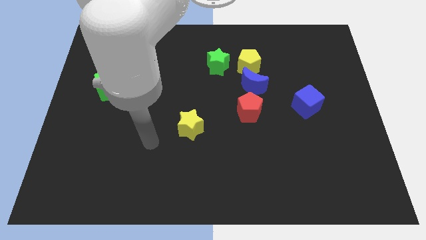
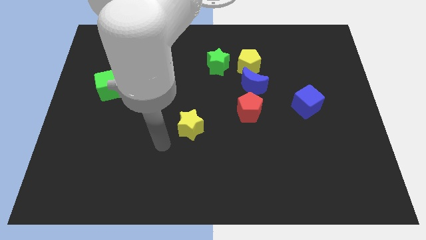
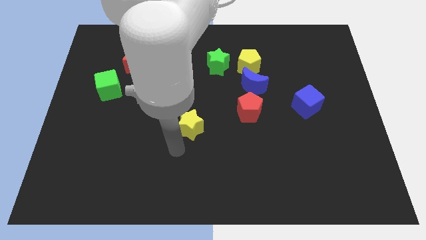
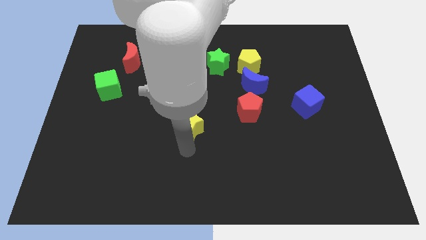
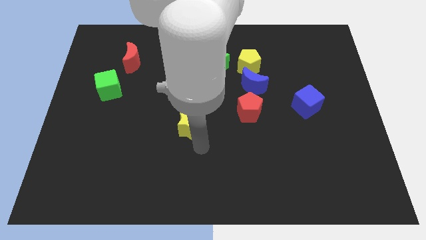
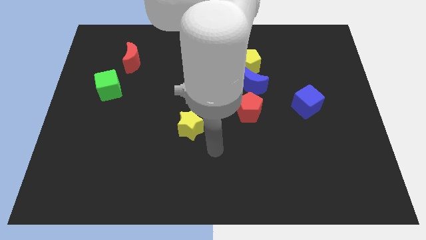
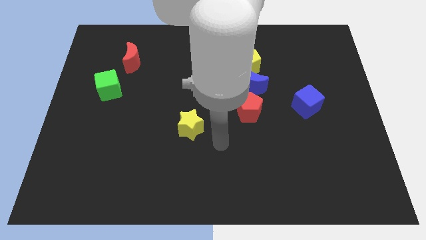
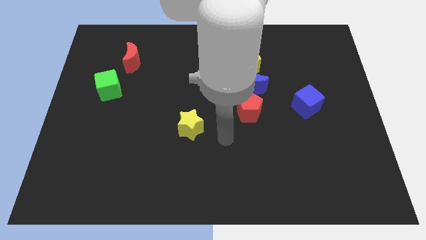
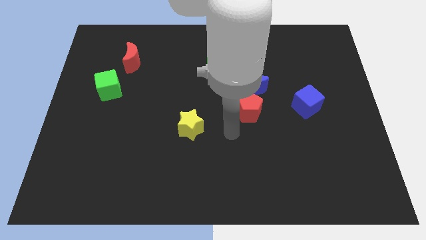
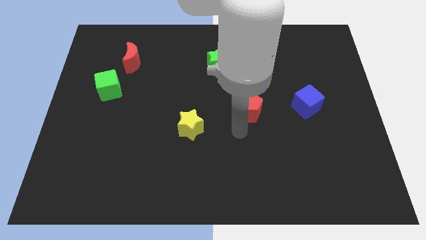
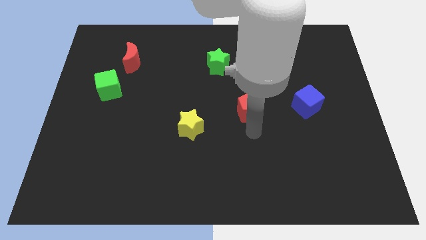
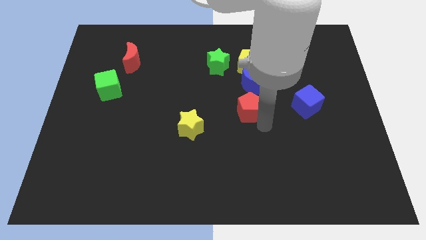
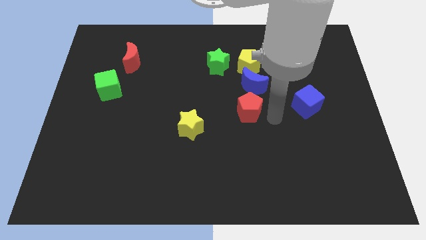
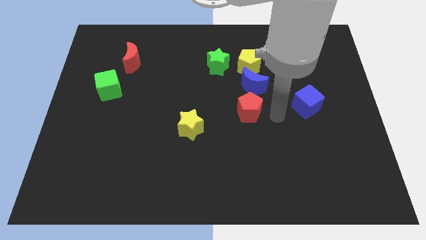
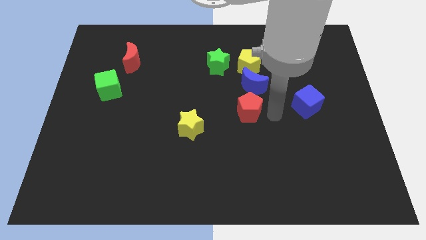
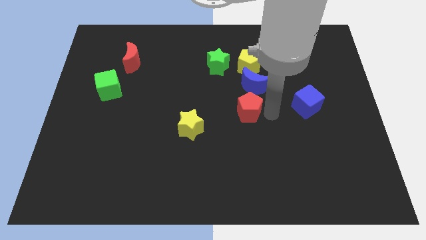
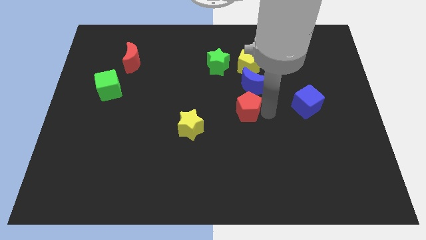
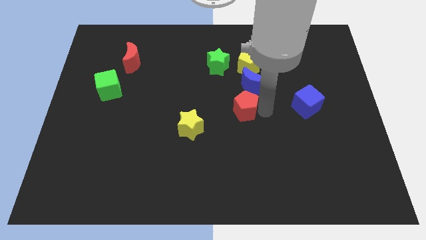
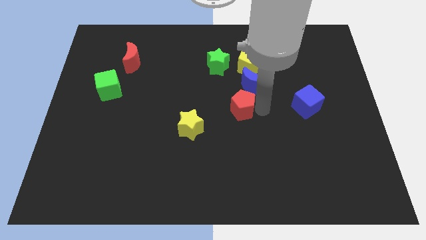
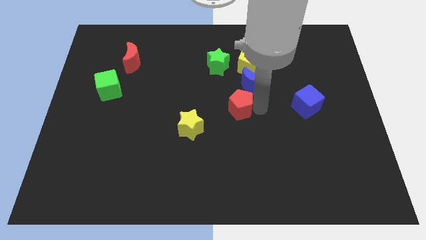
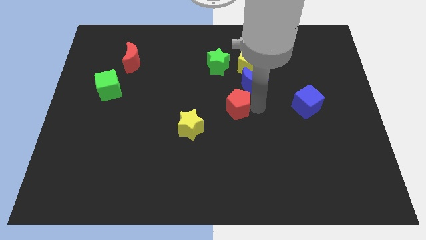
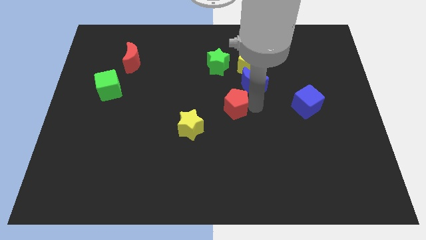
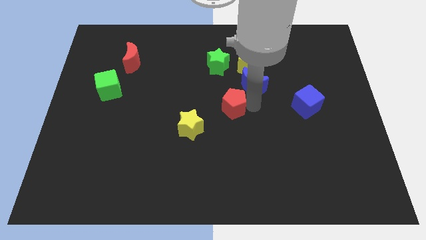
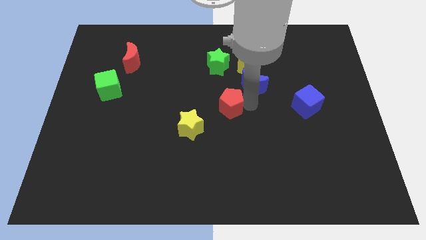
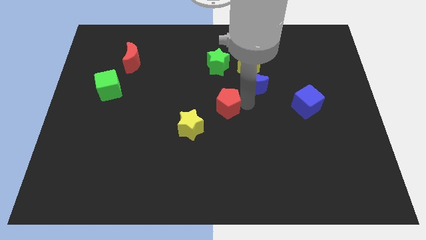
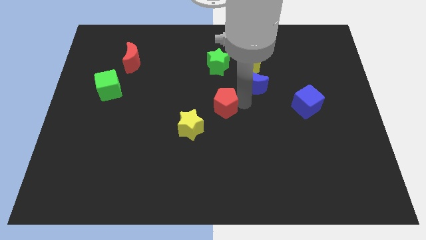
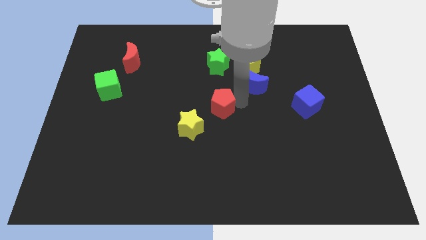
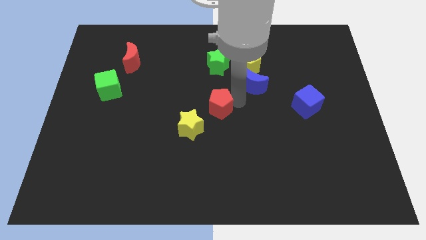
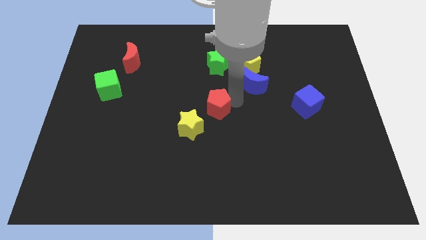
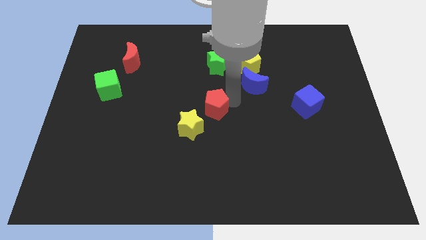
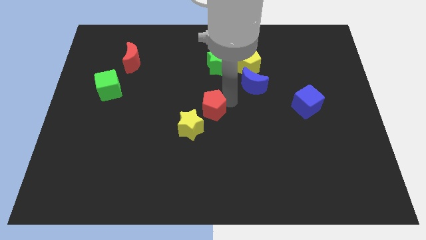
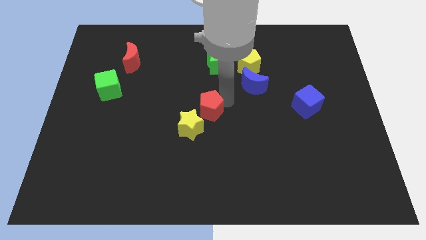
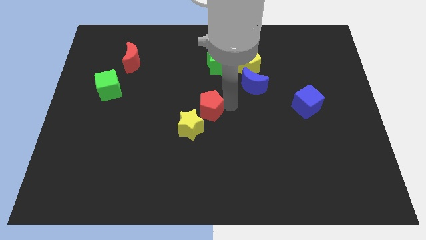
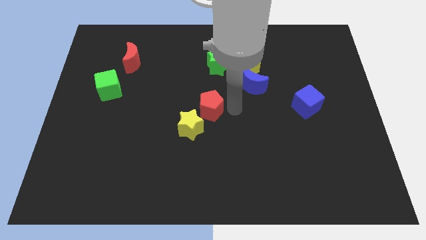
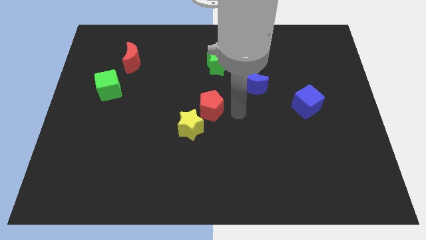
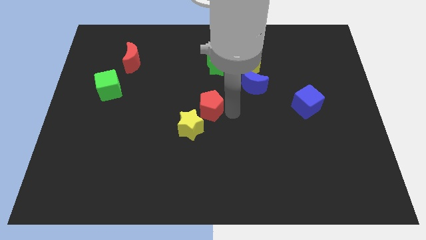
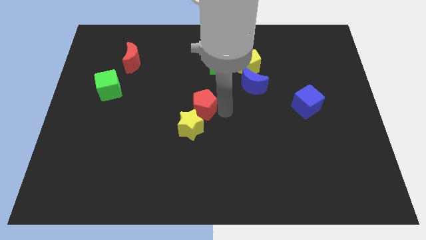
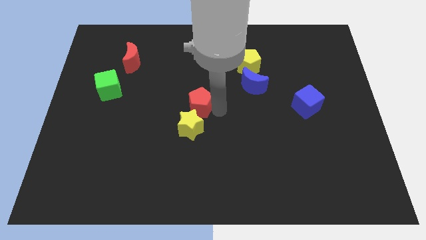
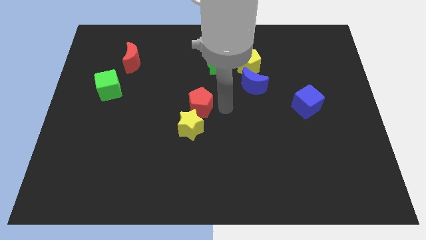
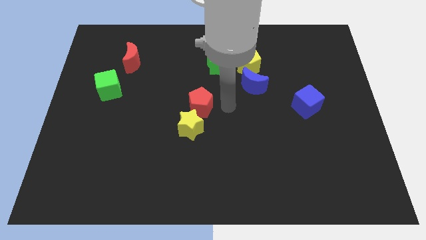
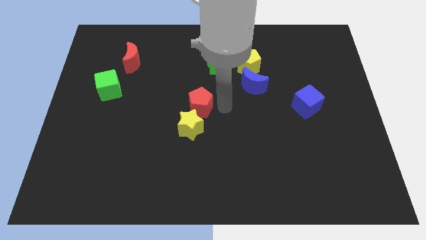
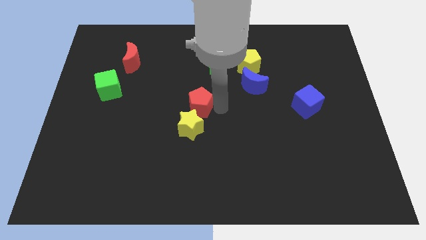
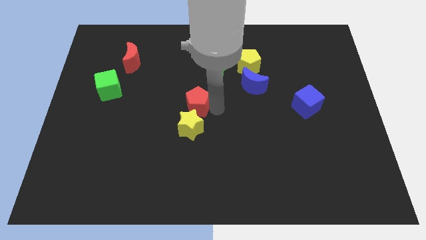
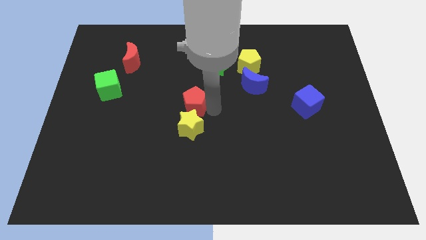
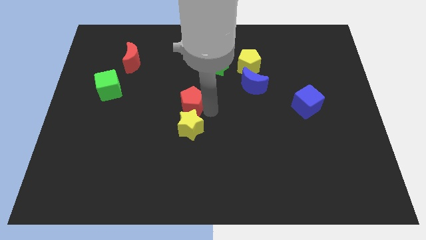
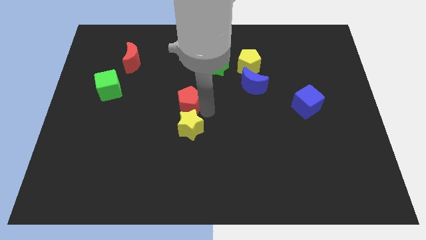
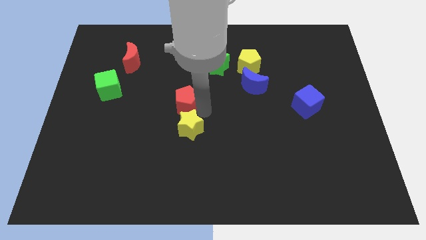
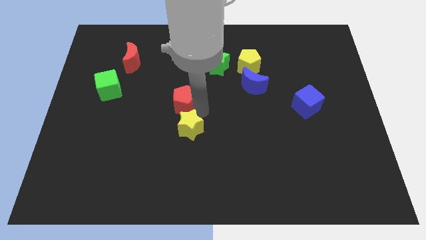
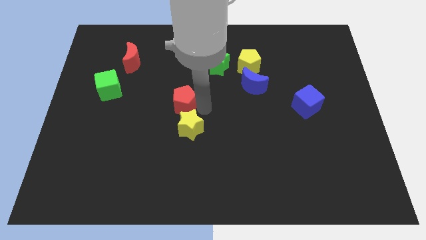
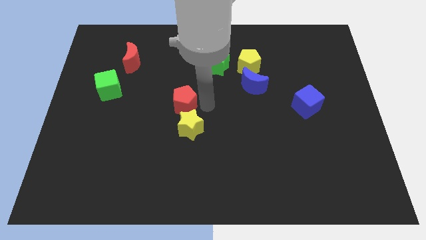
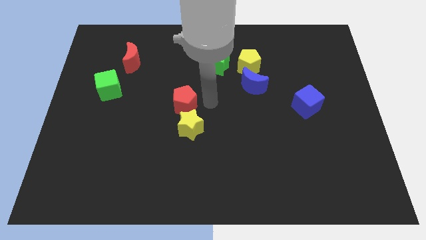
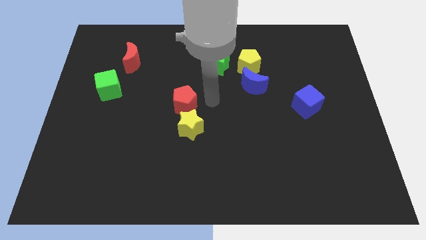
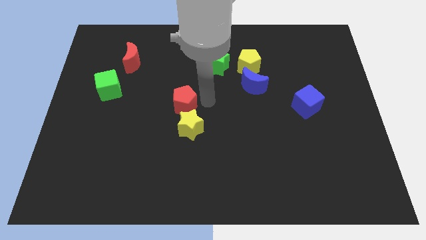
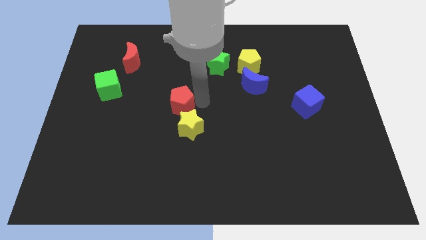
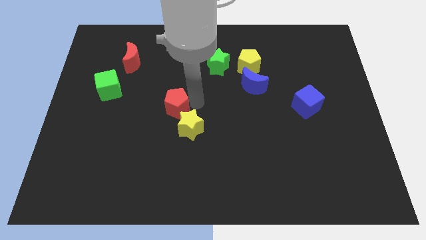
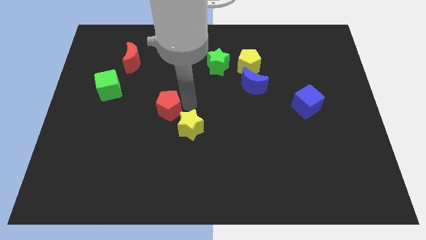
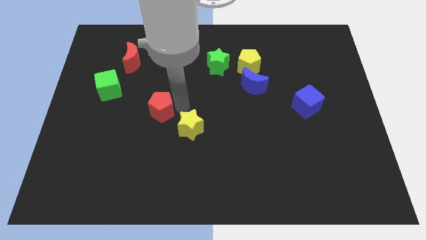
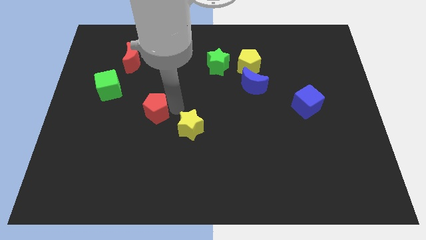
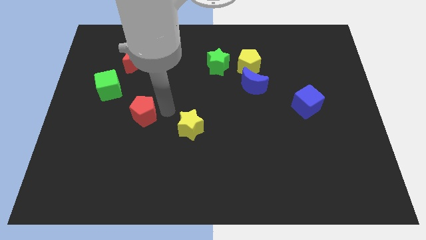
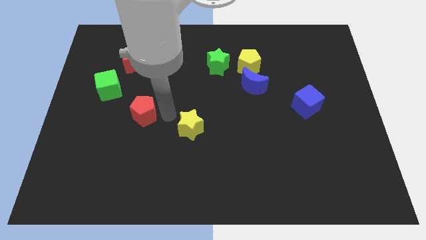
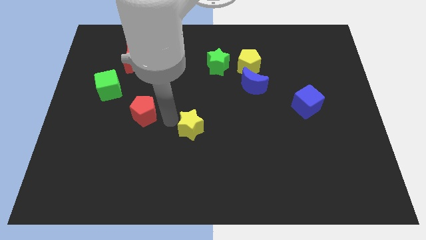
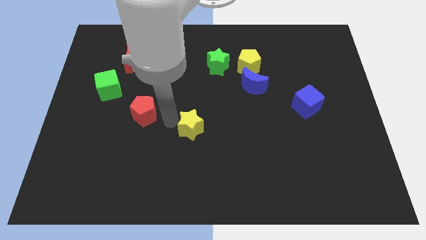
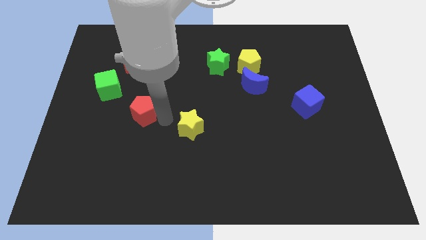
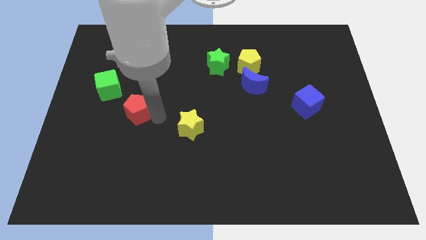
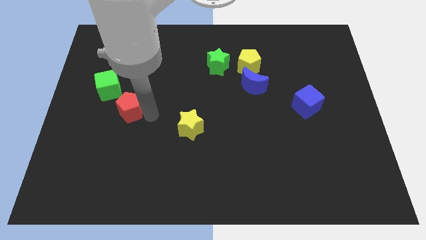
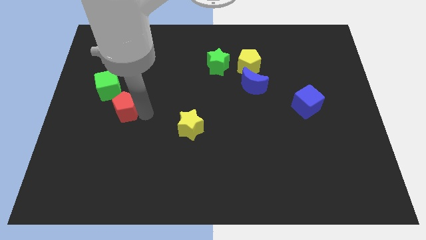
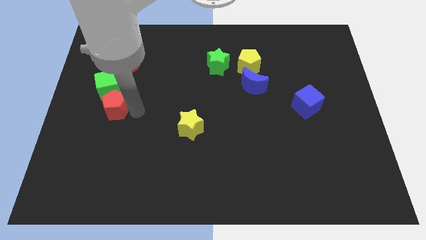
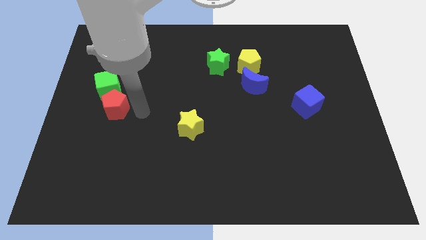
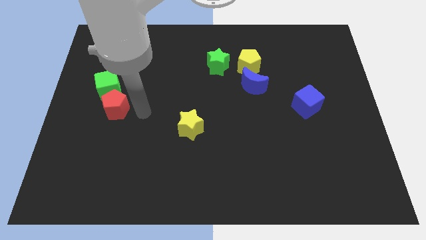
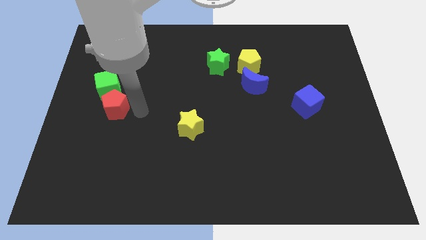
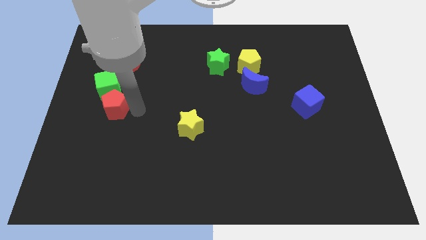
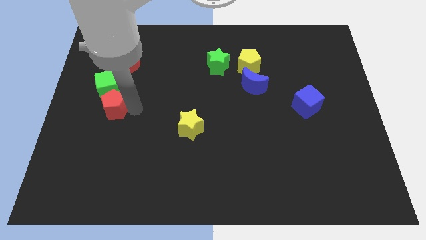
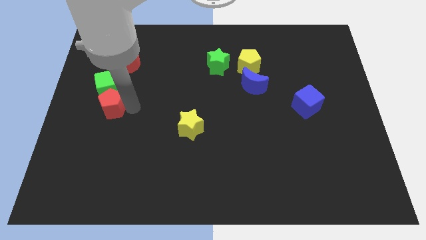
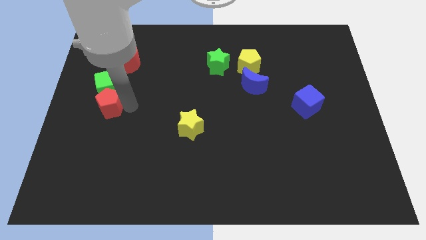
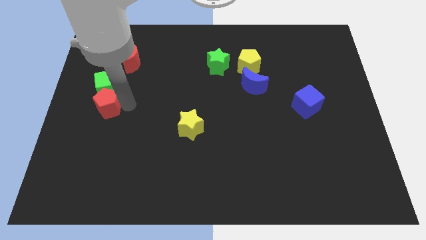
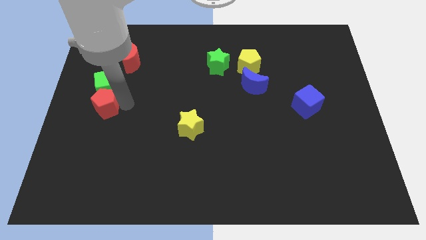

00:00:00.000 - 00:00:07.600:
push the red pentagon to the center left
